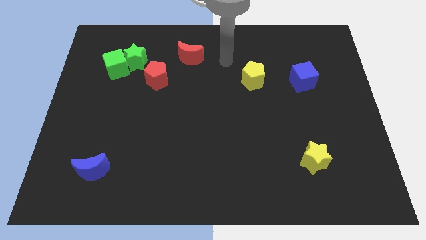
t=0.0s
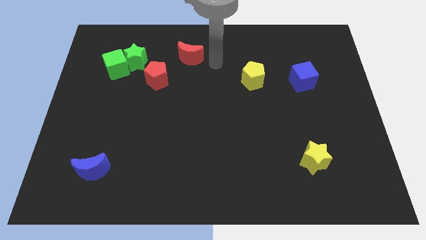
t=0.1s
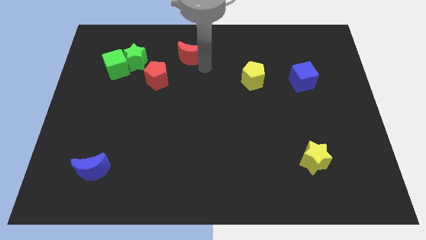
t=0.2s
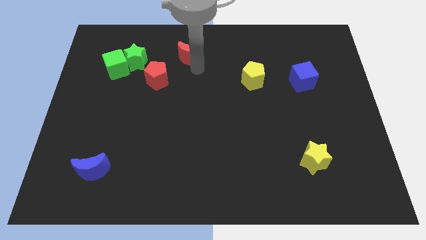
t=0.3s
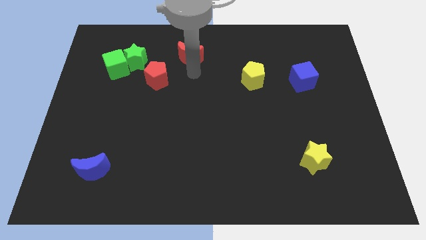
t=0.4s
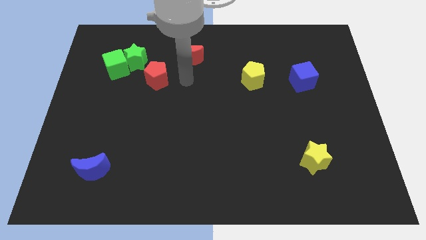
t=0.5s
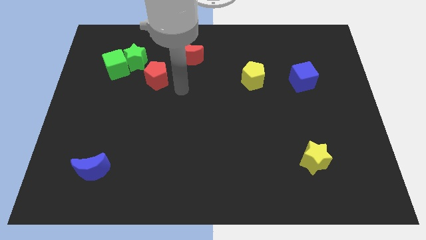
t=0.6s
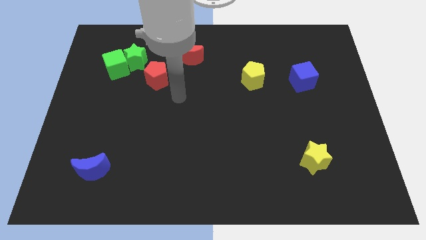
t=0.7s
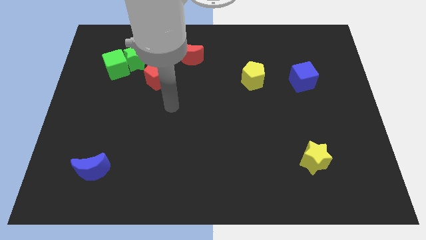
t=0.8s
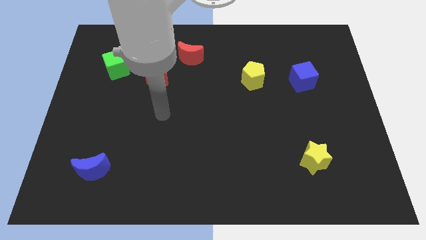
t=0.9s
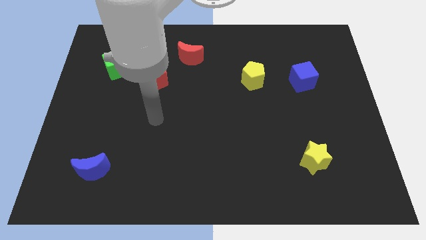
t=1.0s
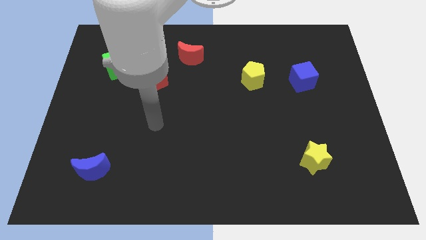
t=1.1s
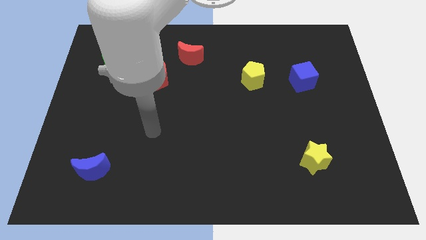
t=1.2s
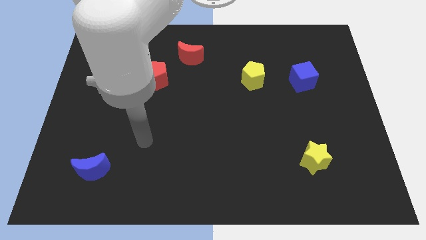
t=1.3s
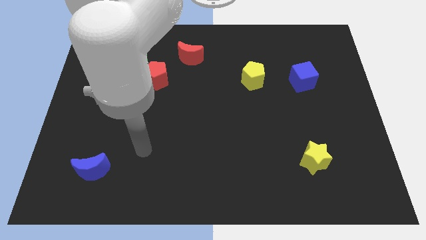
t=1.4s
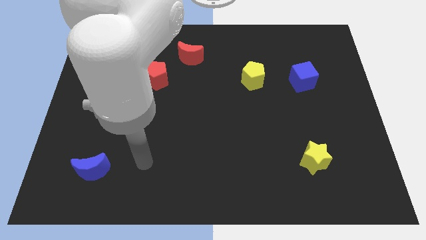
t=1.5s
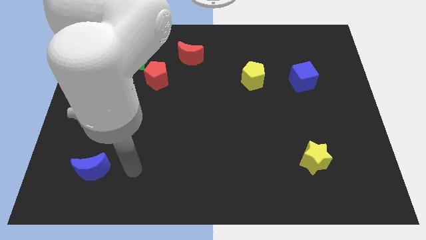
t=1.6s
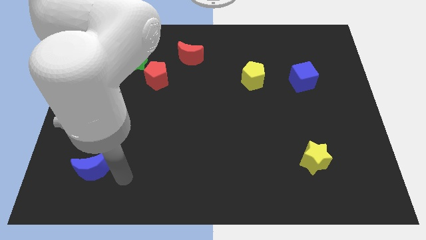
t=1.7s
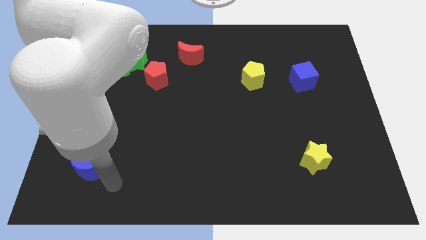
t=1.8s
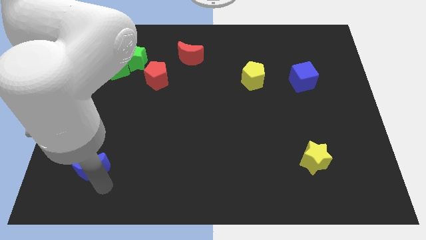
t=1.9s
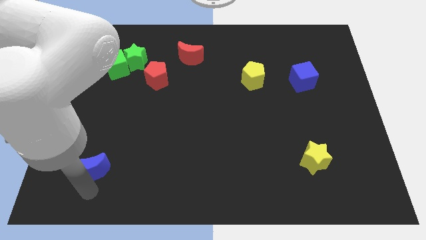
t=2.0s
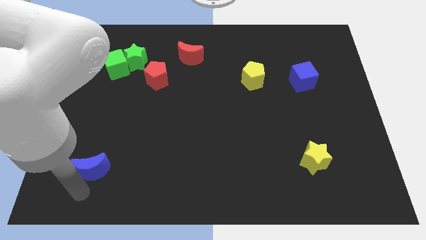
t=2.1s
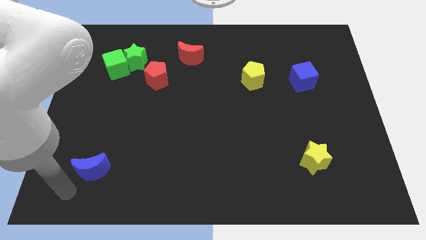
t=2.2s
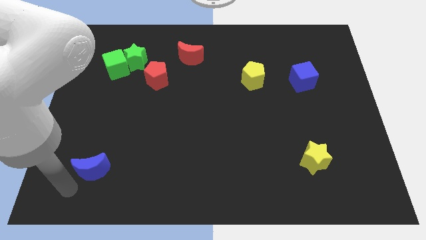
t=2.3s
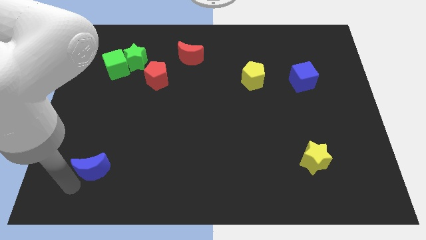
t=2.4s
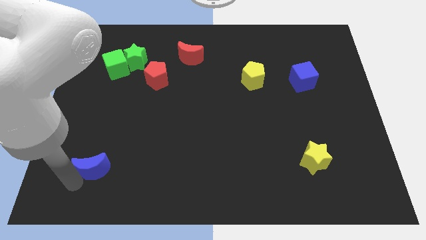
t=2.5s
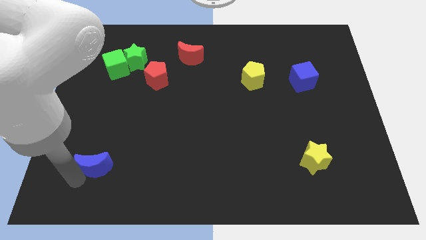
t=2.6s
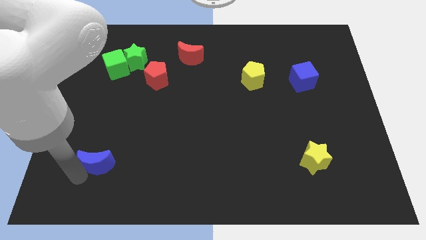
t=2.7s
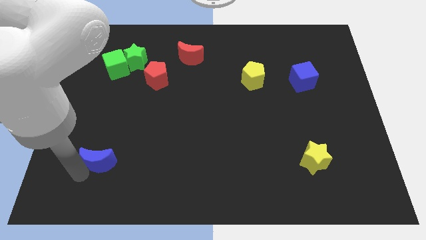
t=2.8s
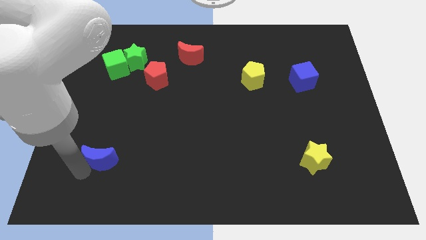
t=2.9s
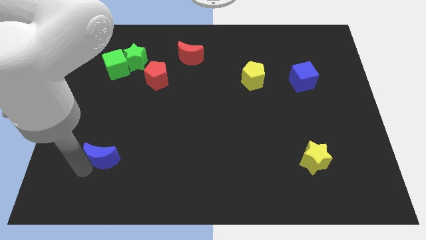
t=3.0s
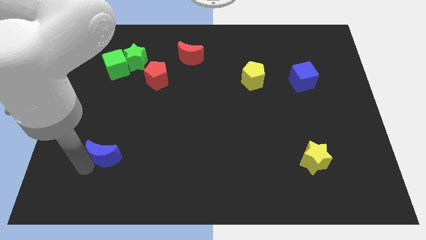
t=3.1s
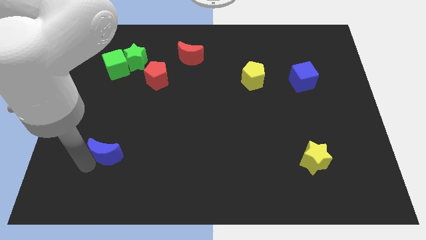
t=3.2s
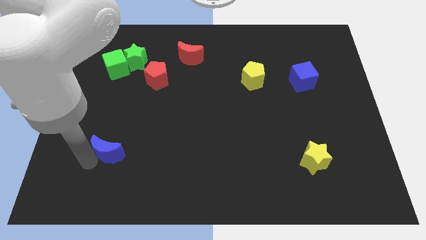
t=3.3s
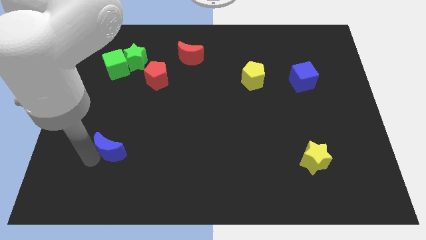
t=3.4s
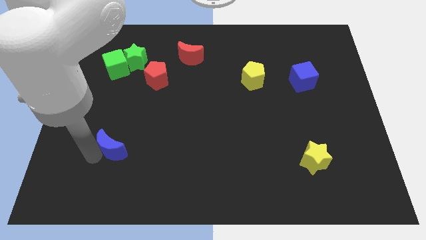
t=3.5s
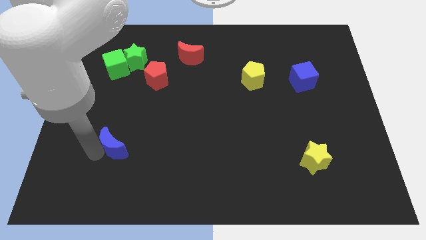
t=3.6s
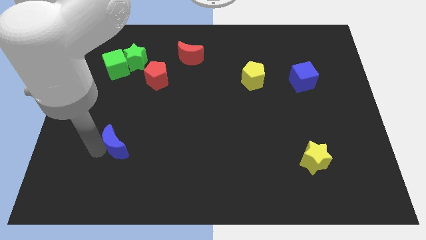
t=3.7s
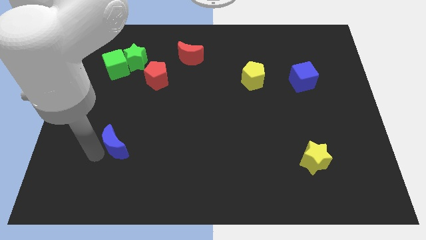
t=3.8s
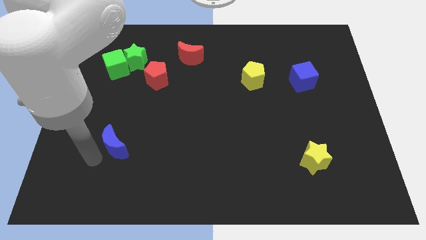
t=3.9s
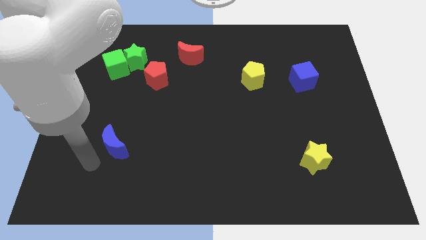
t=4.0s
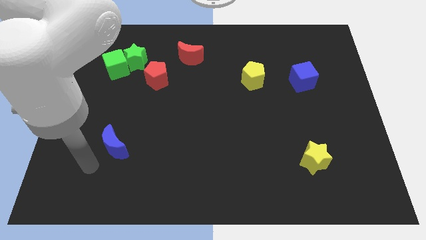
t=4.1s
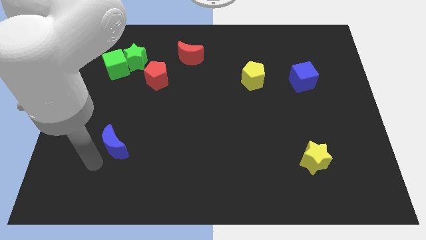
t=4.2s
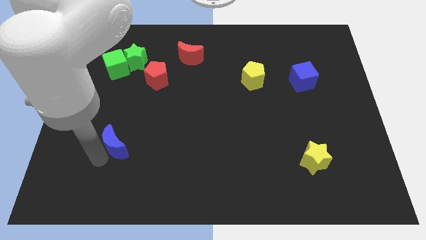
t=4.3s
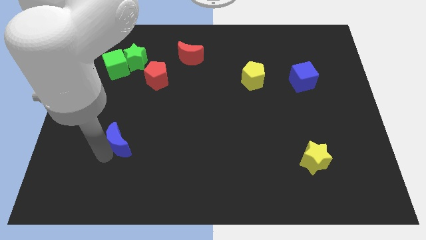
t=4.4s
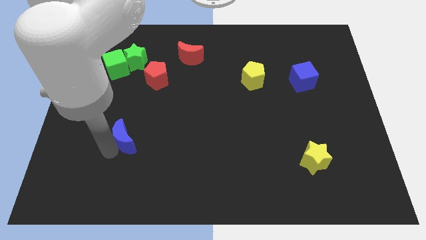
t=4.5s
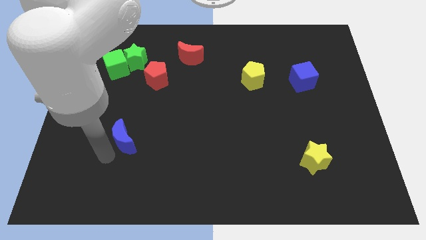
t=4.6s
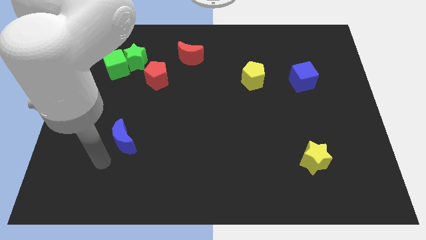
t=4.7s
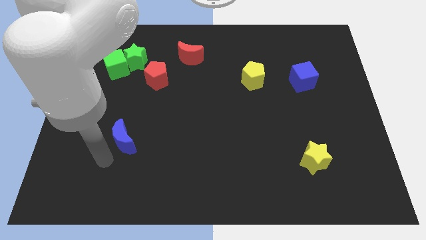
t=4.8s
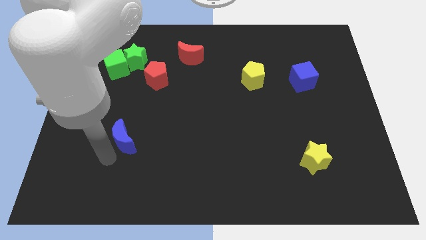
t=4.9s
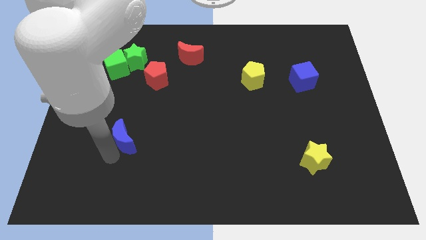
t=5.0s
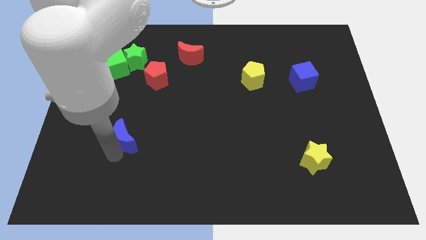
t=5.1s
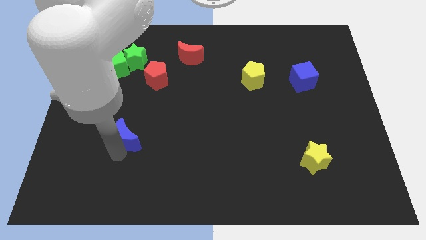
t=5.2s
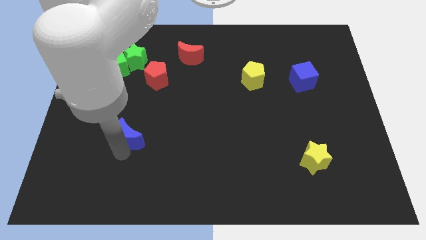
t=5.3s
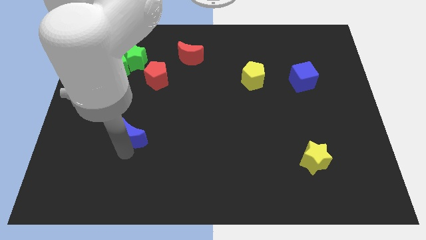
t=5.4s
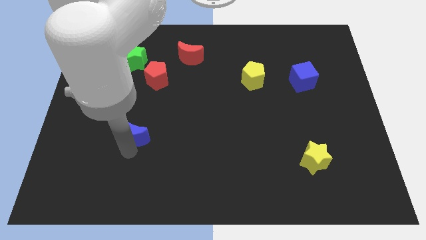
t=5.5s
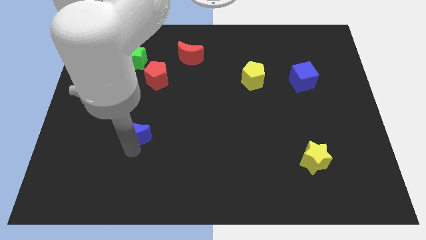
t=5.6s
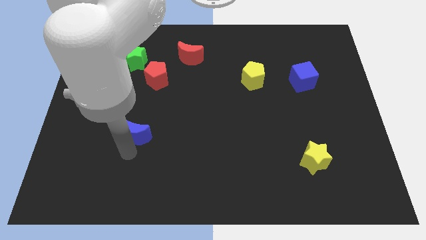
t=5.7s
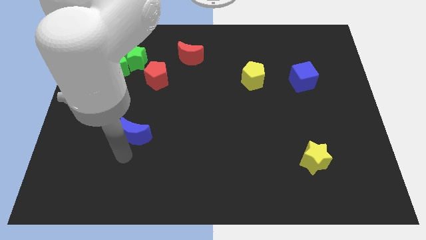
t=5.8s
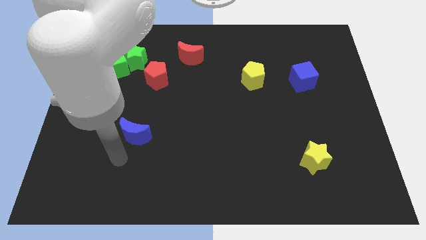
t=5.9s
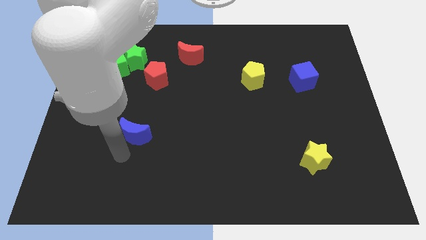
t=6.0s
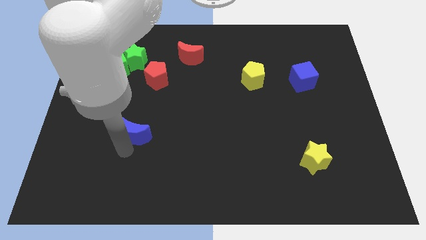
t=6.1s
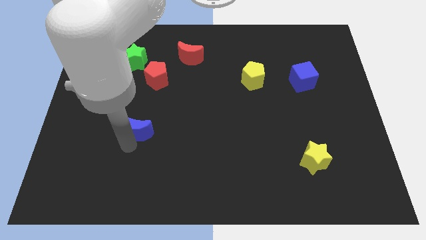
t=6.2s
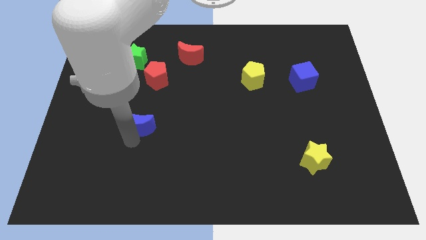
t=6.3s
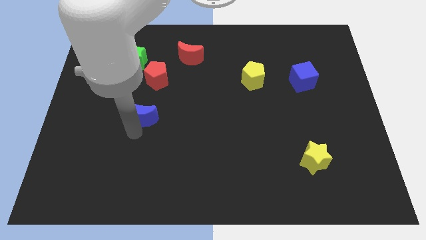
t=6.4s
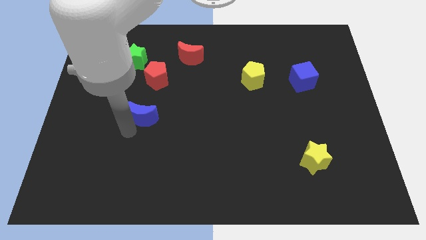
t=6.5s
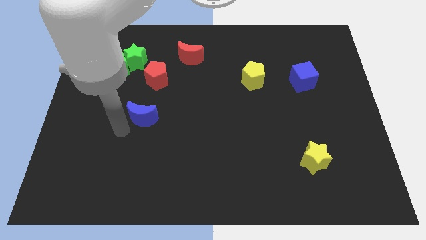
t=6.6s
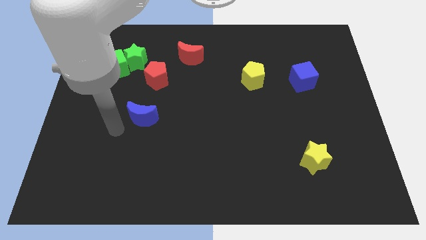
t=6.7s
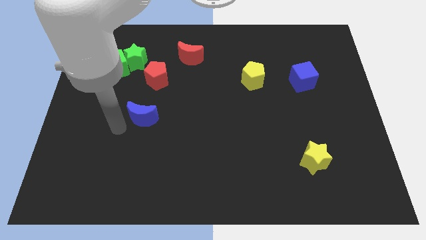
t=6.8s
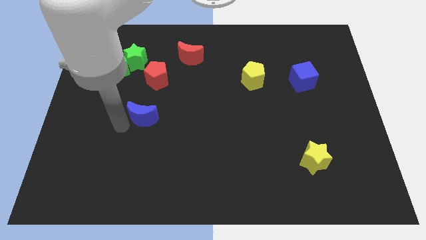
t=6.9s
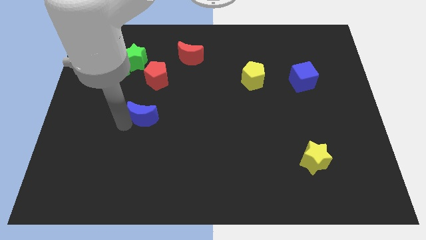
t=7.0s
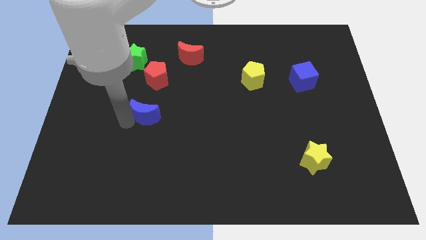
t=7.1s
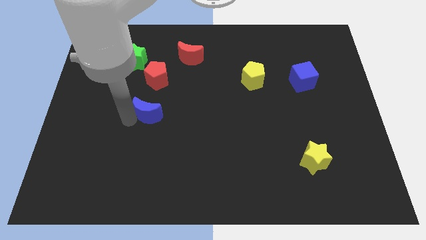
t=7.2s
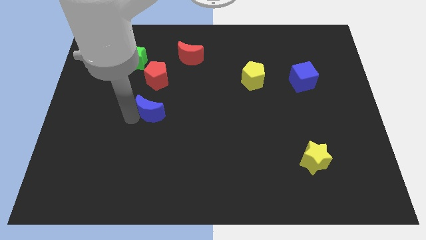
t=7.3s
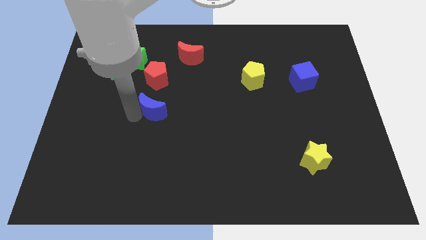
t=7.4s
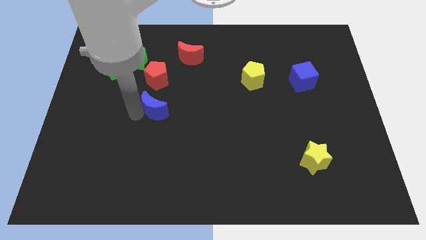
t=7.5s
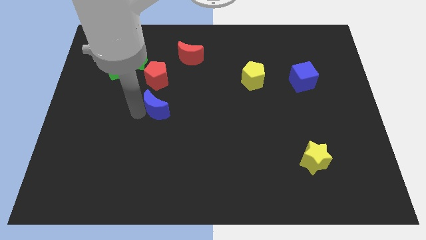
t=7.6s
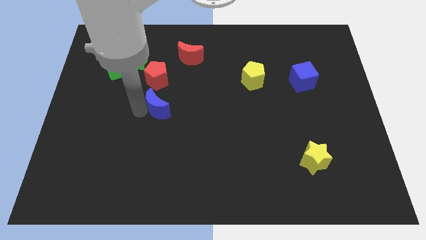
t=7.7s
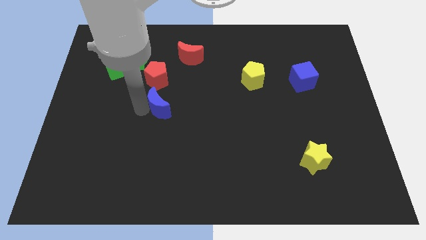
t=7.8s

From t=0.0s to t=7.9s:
move the blue moon up and then right
